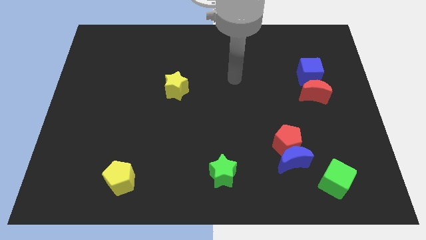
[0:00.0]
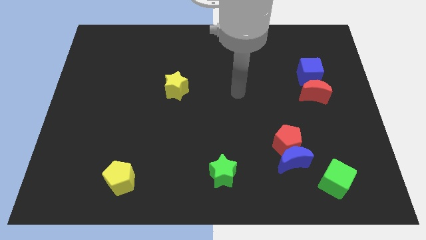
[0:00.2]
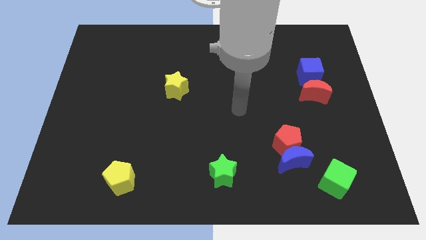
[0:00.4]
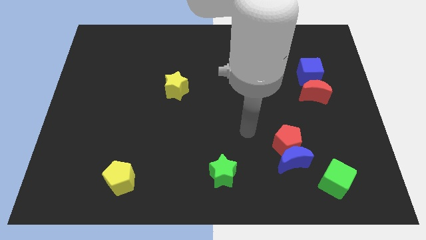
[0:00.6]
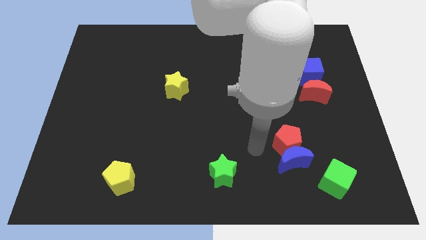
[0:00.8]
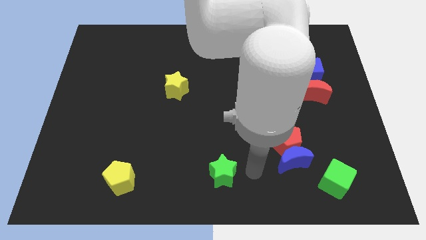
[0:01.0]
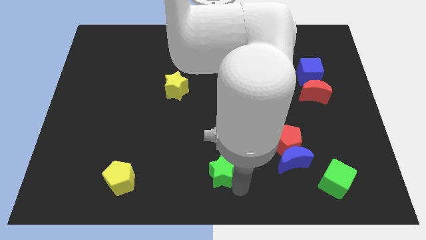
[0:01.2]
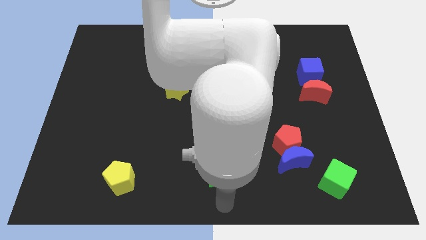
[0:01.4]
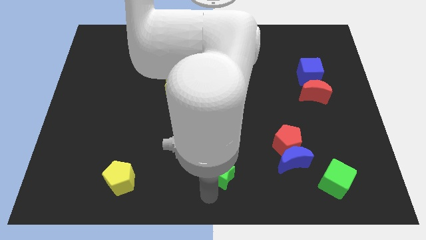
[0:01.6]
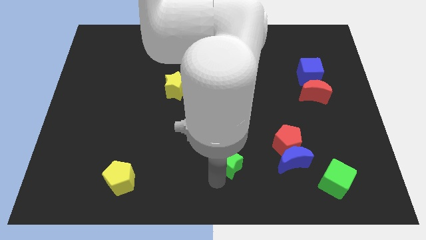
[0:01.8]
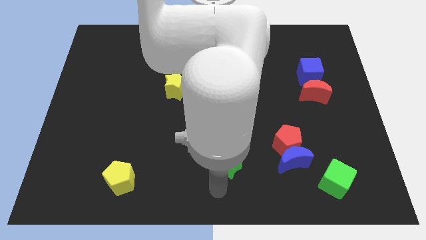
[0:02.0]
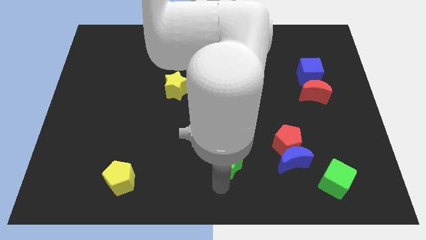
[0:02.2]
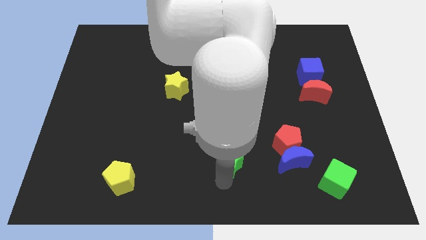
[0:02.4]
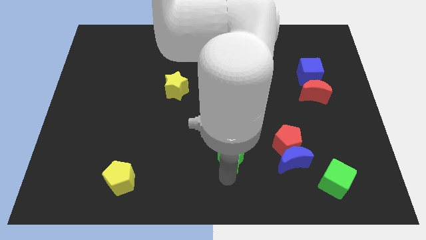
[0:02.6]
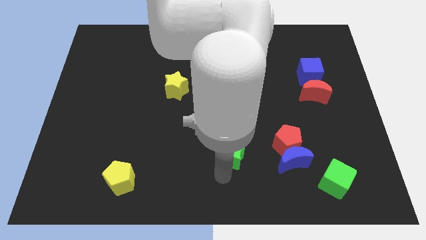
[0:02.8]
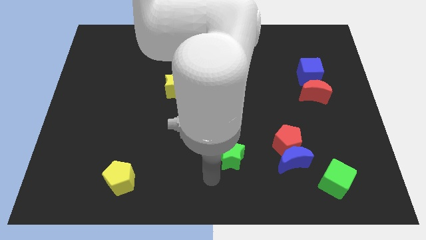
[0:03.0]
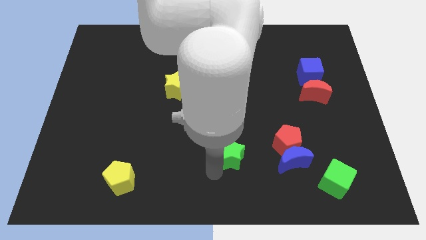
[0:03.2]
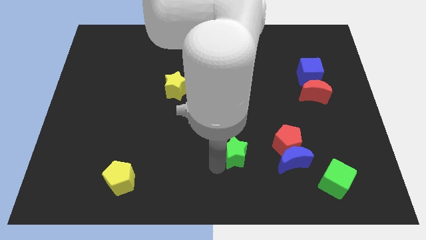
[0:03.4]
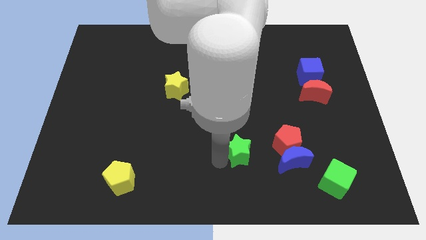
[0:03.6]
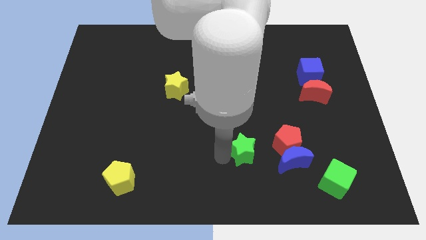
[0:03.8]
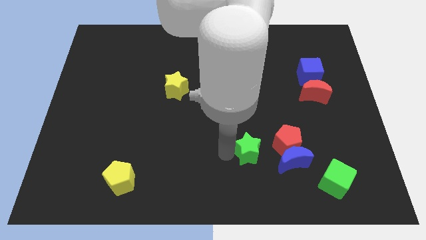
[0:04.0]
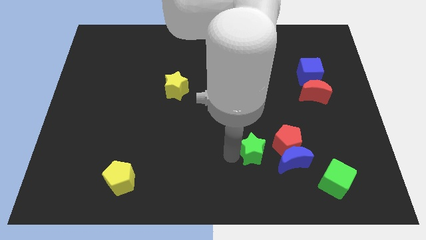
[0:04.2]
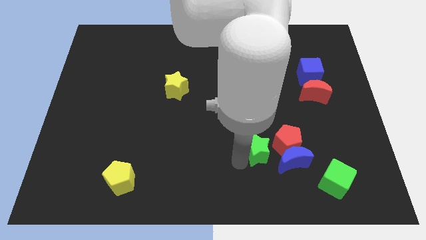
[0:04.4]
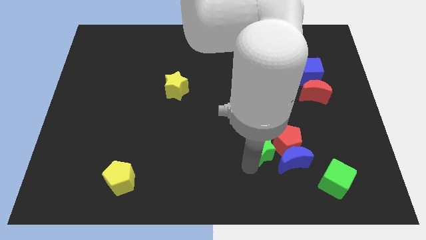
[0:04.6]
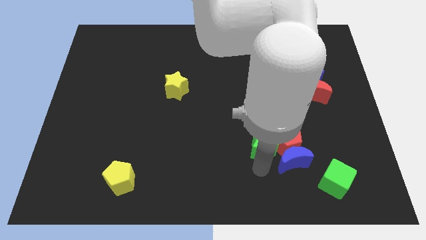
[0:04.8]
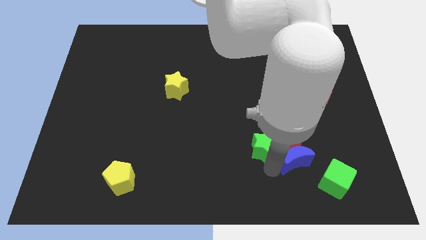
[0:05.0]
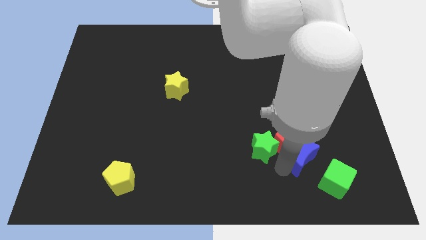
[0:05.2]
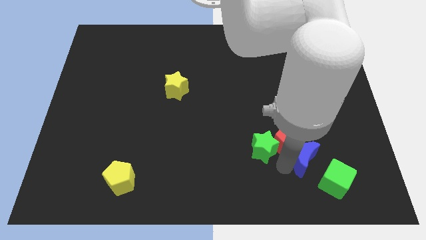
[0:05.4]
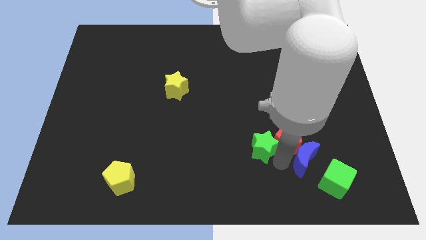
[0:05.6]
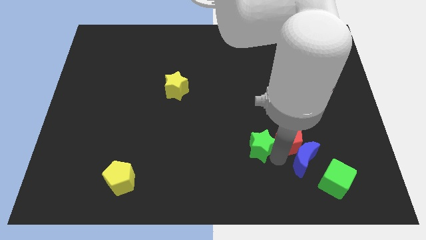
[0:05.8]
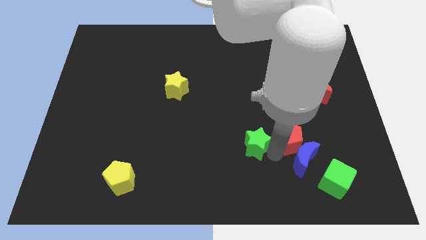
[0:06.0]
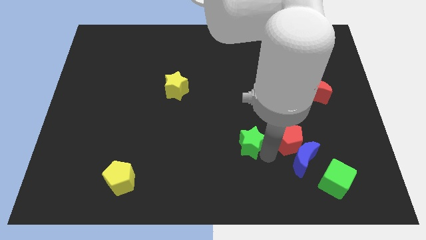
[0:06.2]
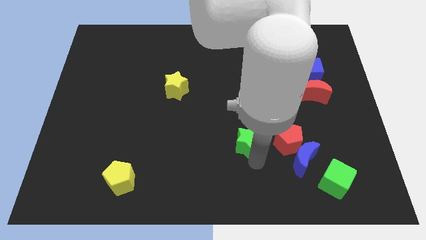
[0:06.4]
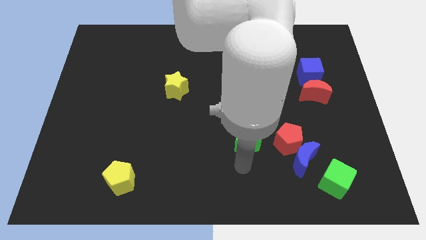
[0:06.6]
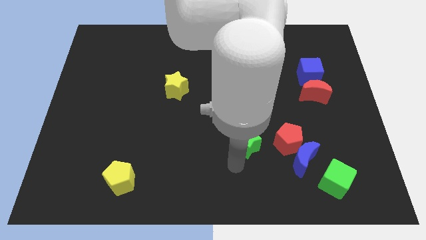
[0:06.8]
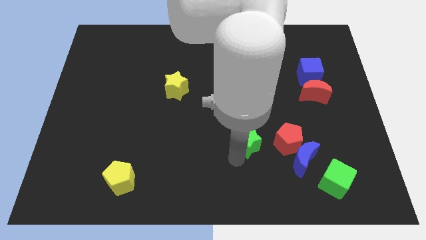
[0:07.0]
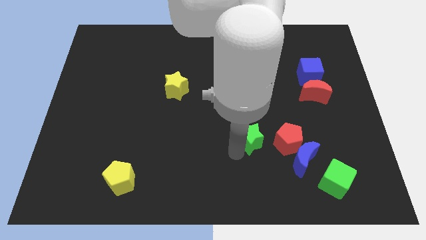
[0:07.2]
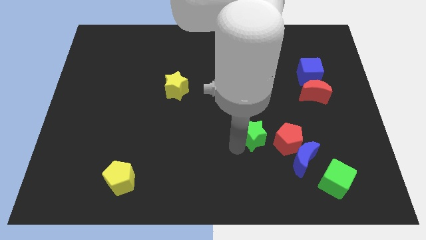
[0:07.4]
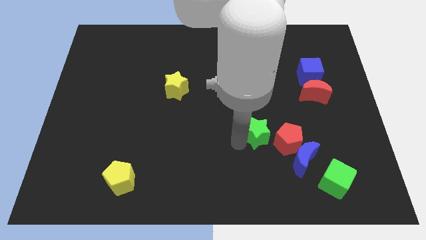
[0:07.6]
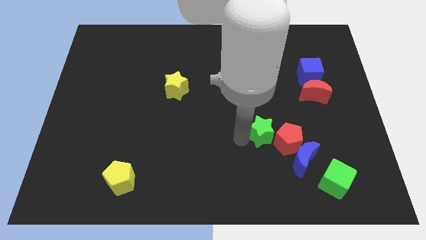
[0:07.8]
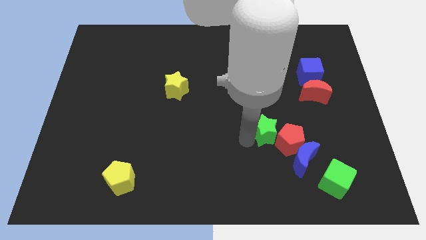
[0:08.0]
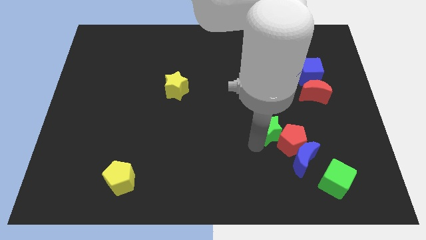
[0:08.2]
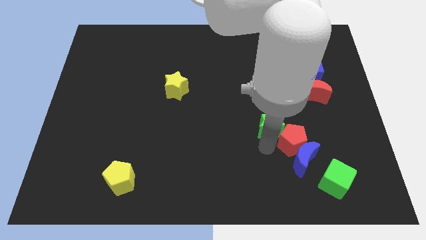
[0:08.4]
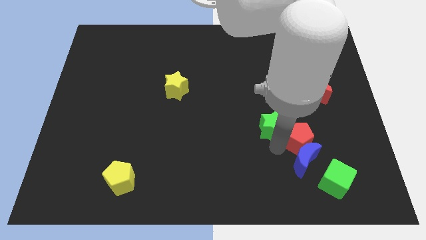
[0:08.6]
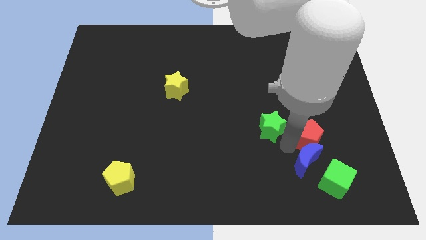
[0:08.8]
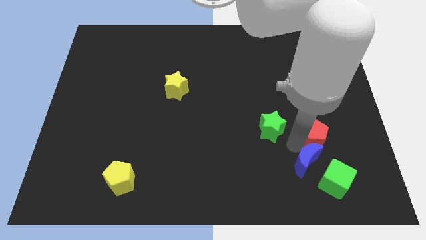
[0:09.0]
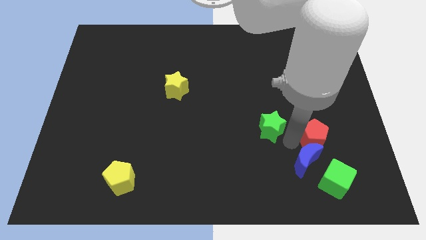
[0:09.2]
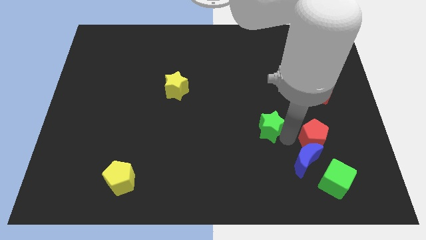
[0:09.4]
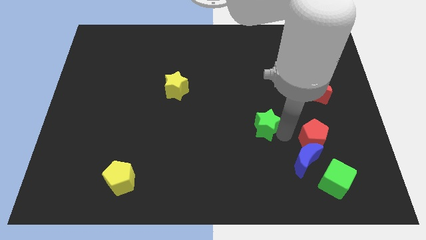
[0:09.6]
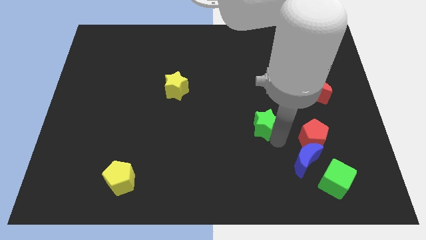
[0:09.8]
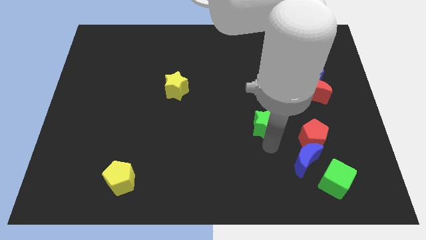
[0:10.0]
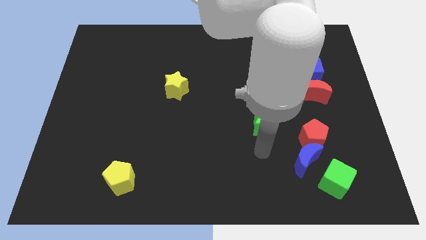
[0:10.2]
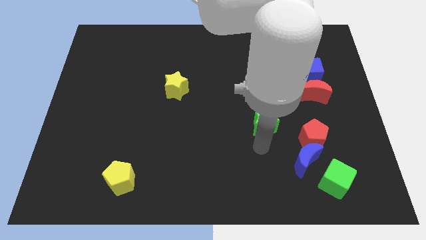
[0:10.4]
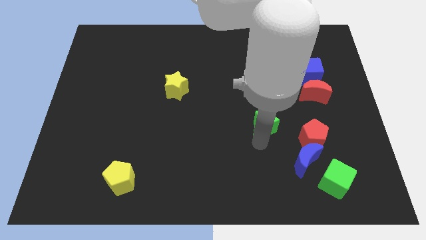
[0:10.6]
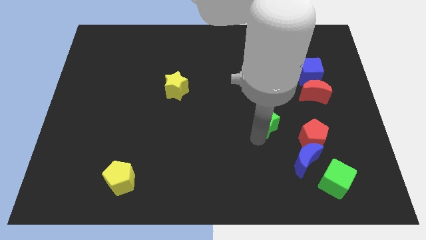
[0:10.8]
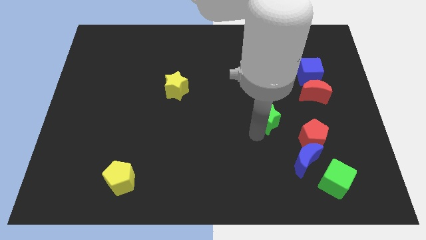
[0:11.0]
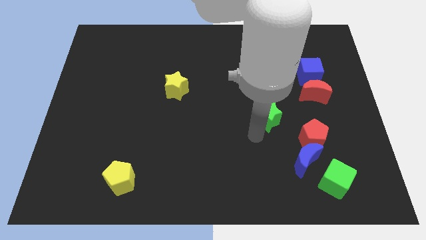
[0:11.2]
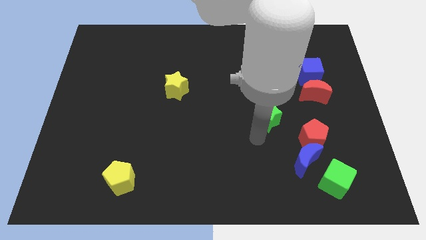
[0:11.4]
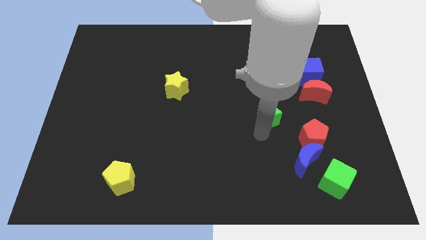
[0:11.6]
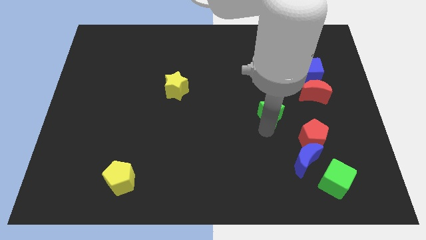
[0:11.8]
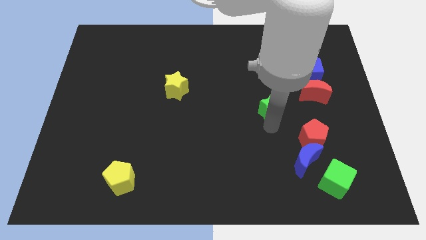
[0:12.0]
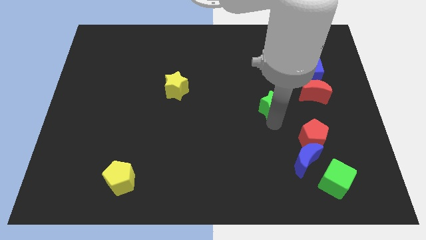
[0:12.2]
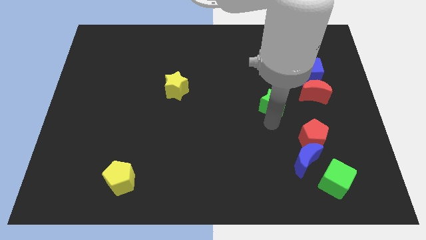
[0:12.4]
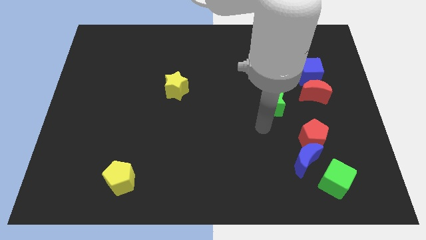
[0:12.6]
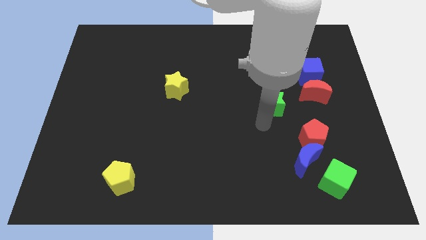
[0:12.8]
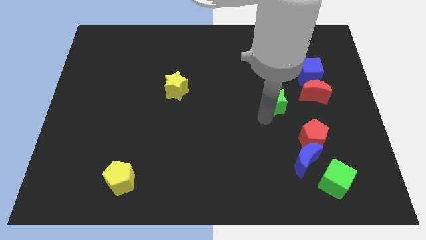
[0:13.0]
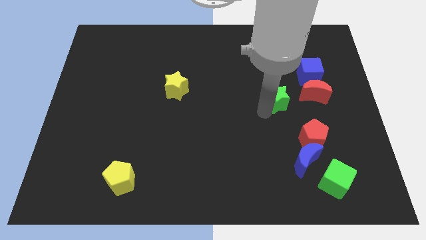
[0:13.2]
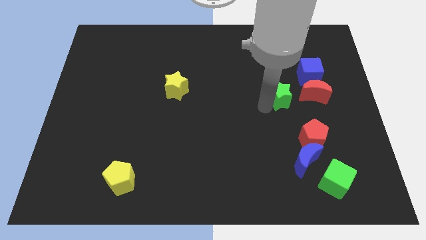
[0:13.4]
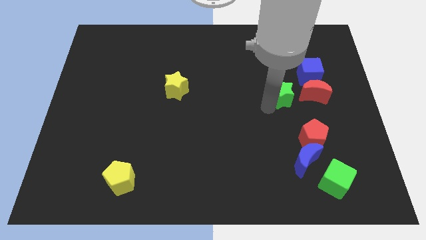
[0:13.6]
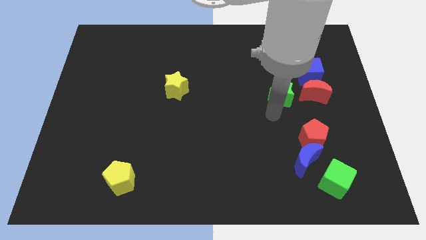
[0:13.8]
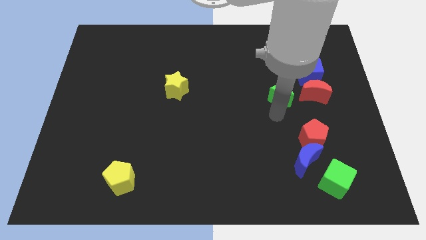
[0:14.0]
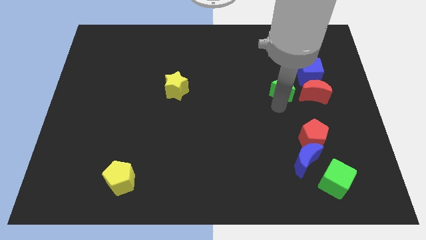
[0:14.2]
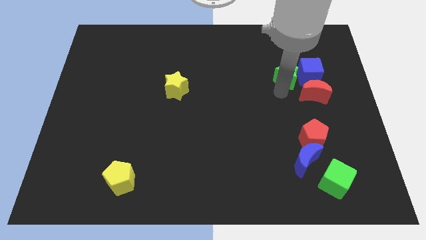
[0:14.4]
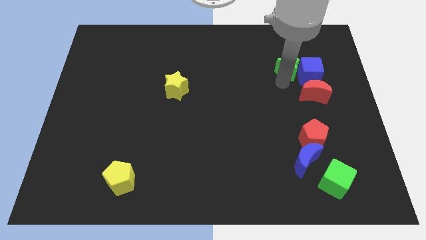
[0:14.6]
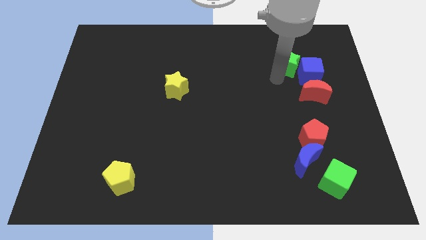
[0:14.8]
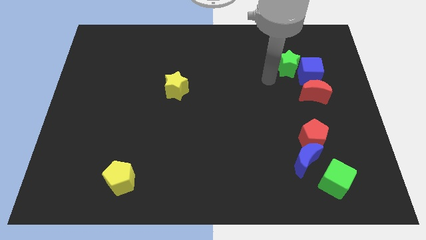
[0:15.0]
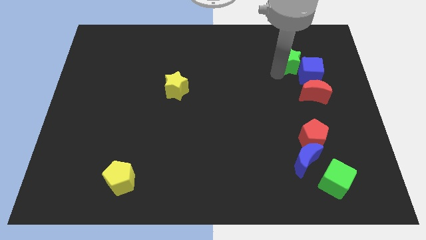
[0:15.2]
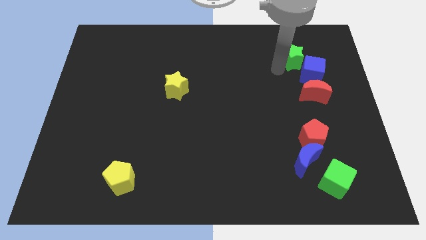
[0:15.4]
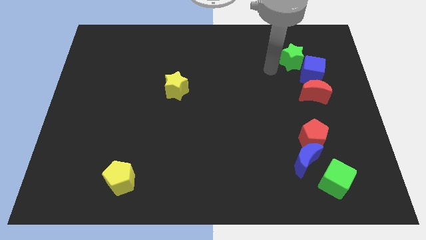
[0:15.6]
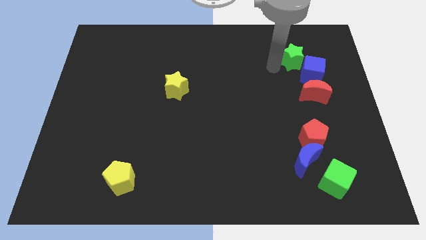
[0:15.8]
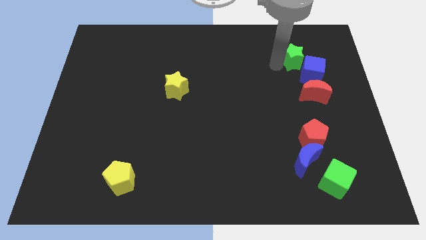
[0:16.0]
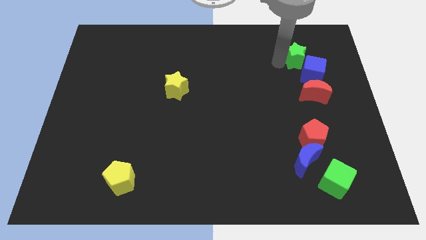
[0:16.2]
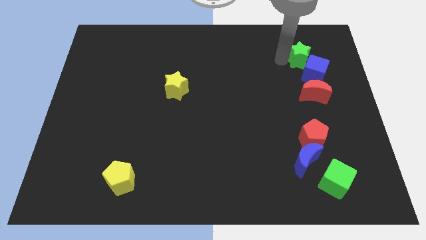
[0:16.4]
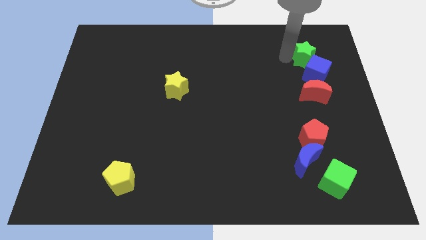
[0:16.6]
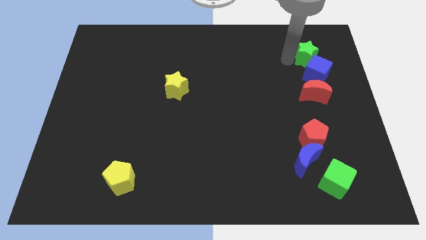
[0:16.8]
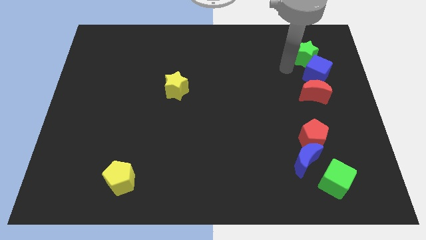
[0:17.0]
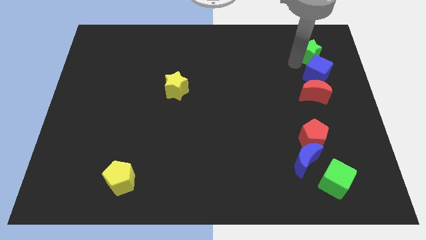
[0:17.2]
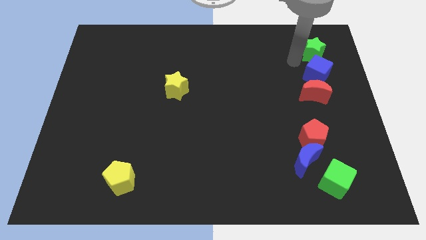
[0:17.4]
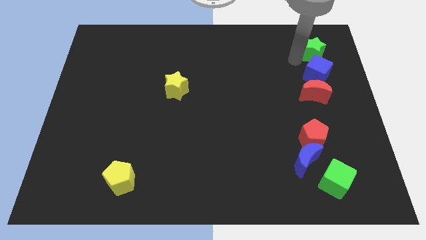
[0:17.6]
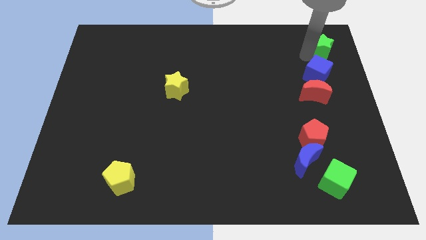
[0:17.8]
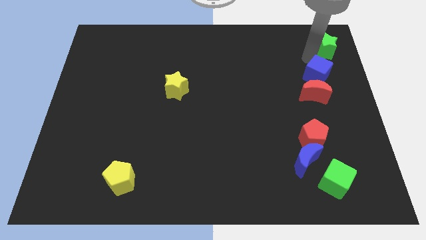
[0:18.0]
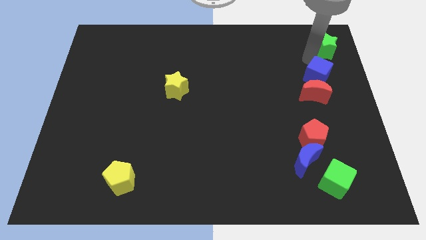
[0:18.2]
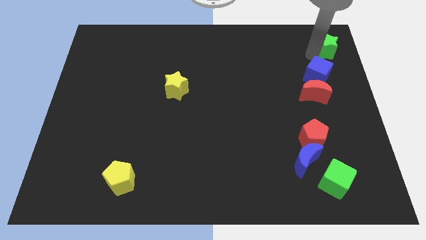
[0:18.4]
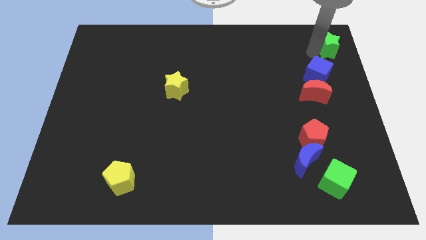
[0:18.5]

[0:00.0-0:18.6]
put the green star to the upper right corner
